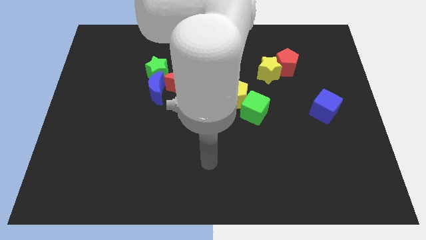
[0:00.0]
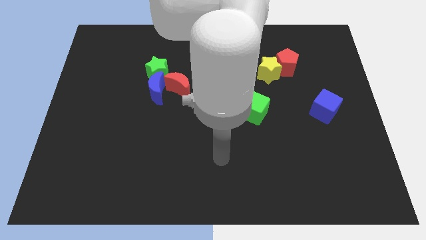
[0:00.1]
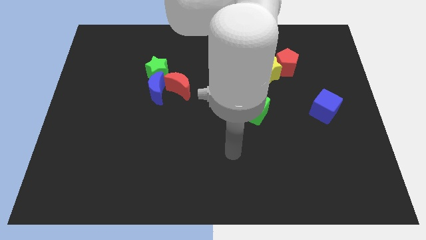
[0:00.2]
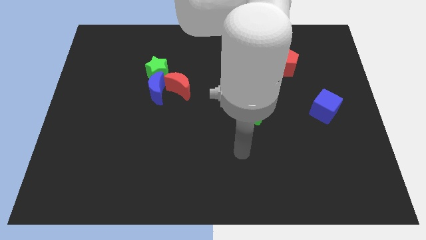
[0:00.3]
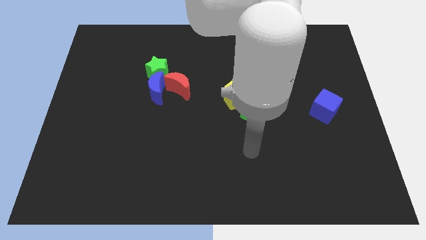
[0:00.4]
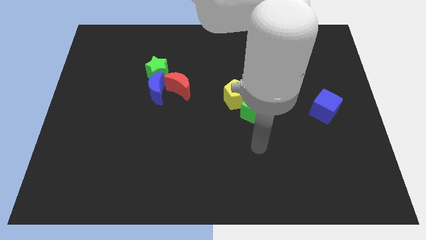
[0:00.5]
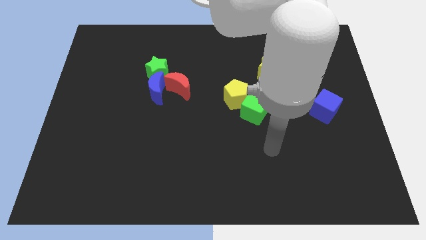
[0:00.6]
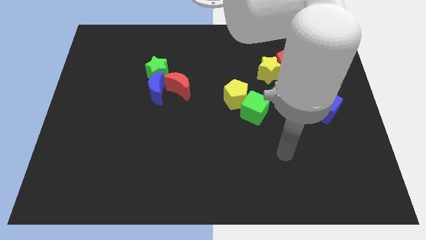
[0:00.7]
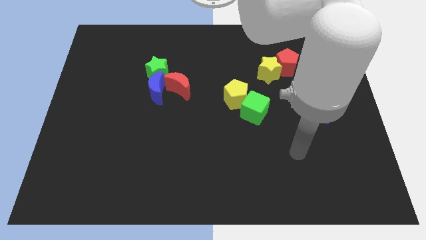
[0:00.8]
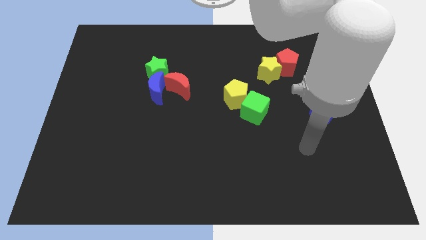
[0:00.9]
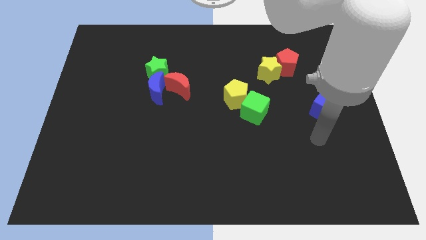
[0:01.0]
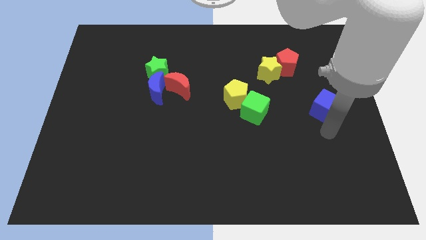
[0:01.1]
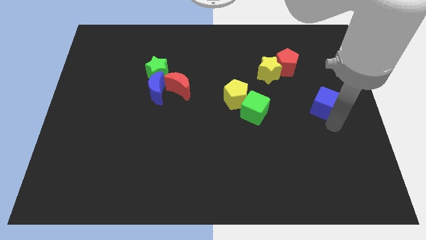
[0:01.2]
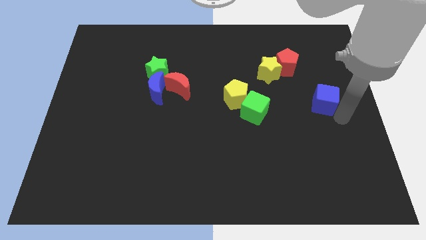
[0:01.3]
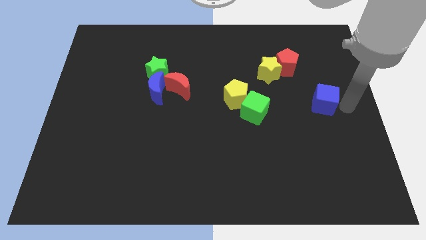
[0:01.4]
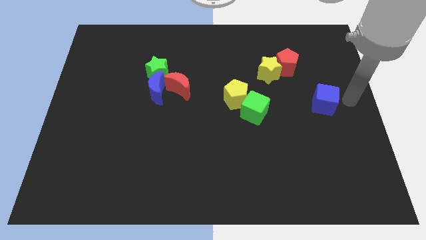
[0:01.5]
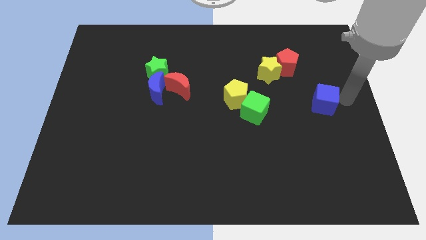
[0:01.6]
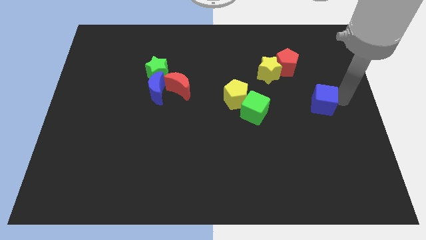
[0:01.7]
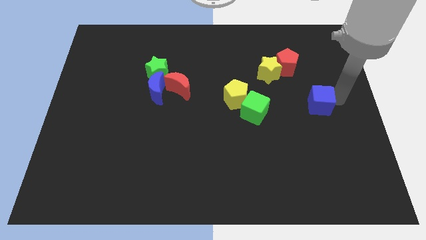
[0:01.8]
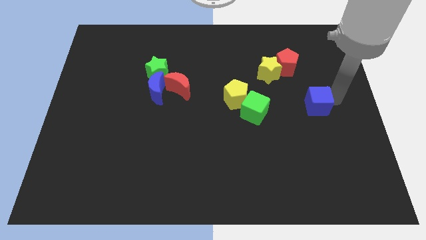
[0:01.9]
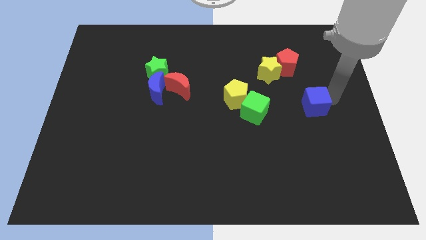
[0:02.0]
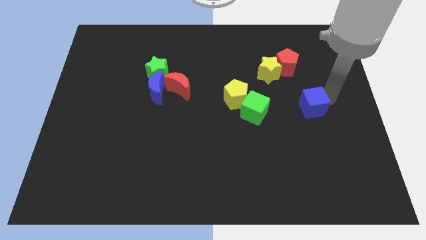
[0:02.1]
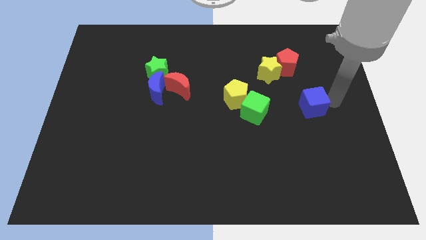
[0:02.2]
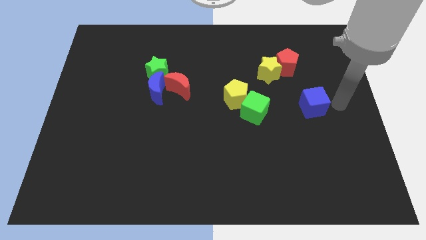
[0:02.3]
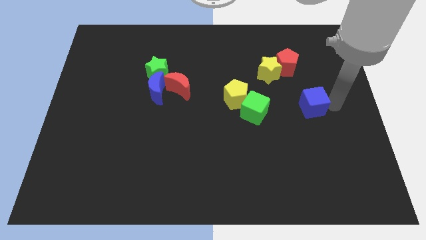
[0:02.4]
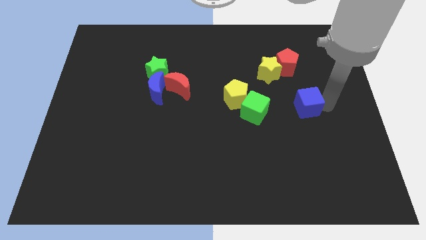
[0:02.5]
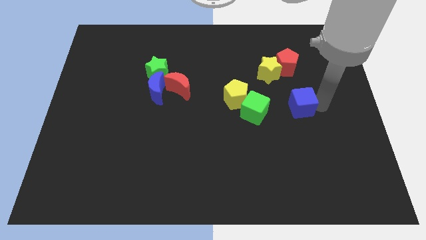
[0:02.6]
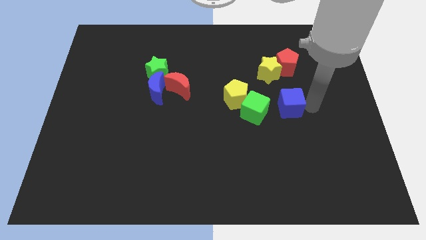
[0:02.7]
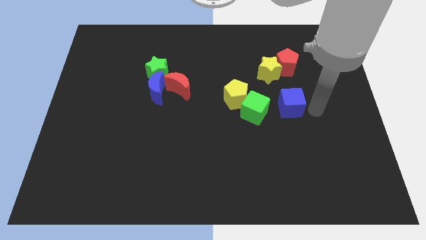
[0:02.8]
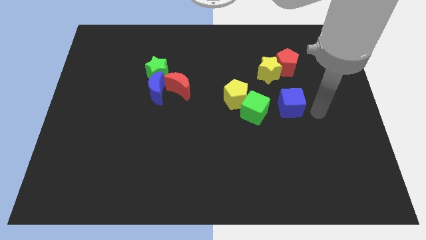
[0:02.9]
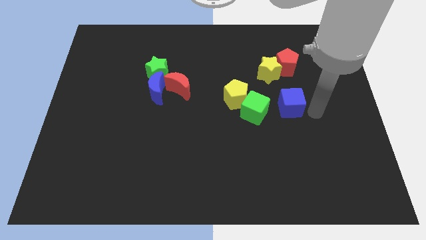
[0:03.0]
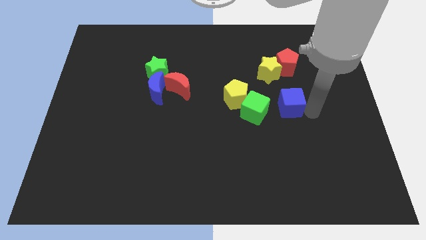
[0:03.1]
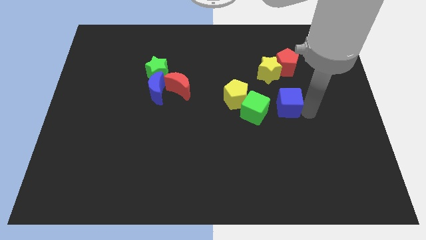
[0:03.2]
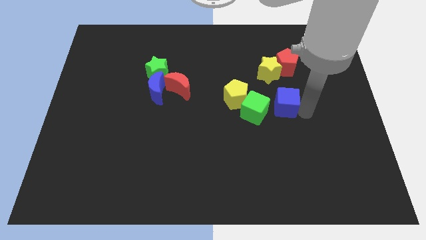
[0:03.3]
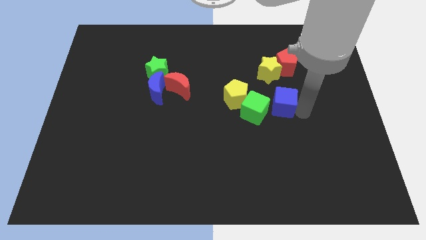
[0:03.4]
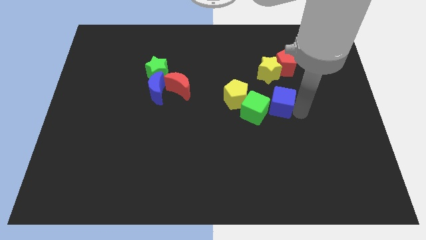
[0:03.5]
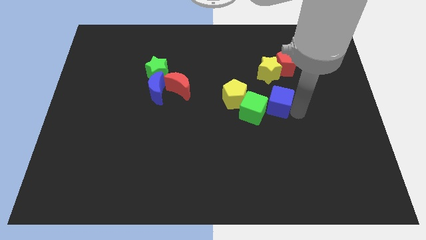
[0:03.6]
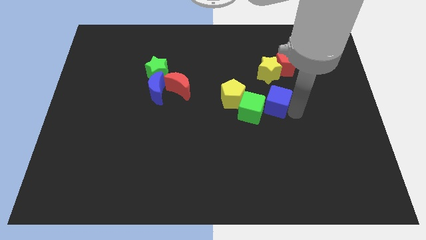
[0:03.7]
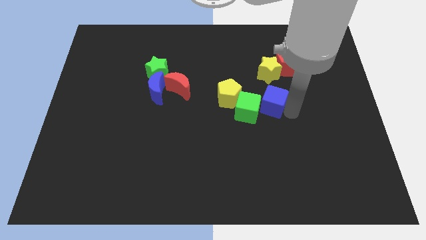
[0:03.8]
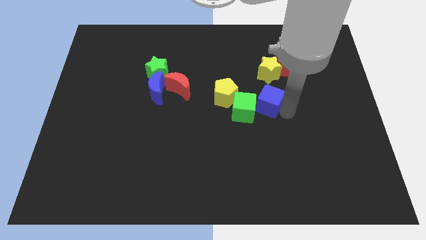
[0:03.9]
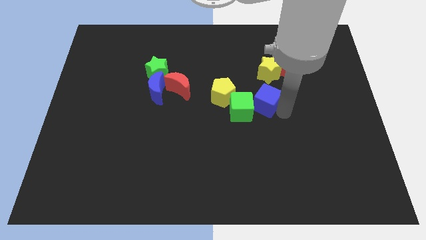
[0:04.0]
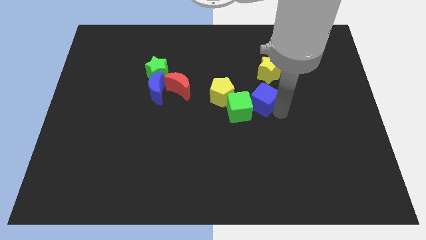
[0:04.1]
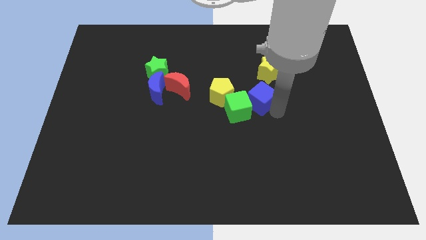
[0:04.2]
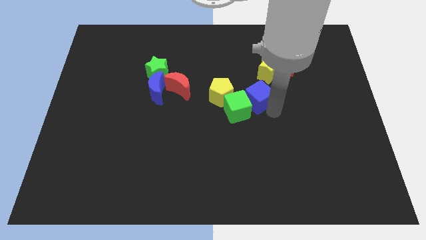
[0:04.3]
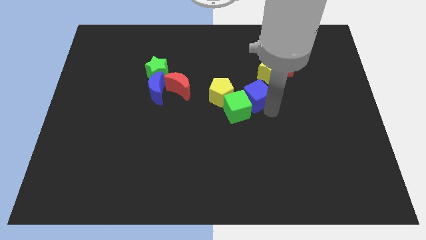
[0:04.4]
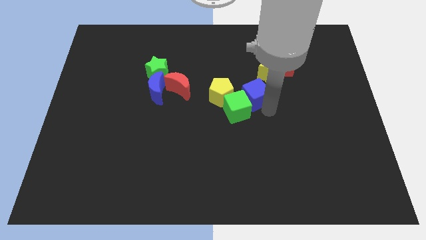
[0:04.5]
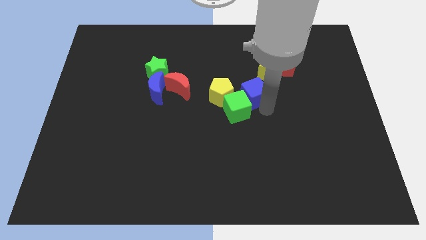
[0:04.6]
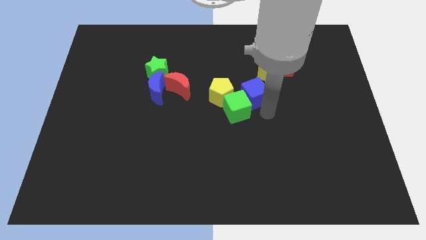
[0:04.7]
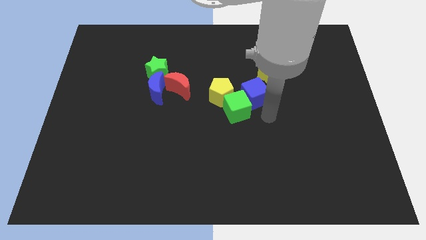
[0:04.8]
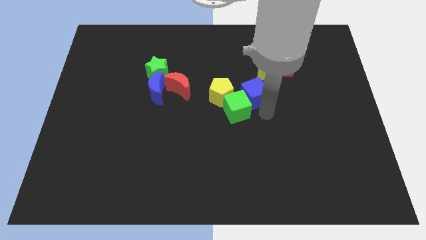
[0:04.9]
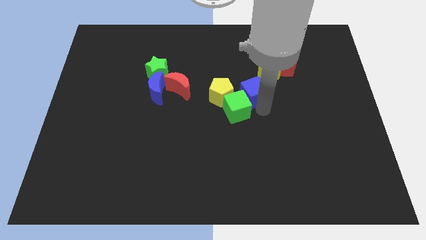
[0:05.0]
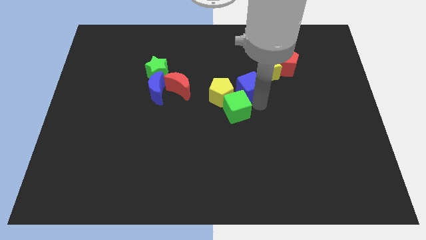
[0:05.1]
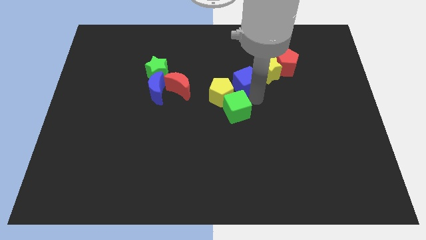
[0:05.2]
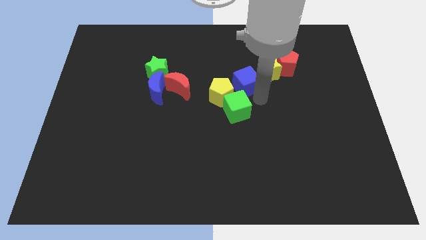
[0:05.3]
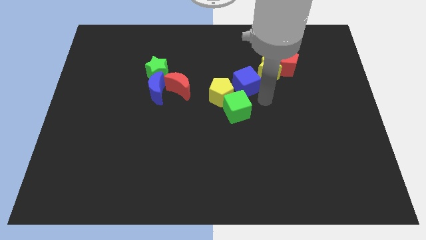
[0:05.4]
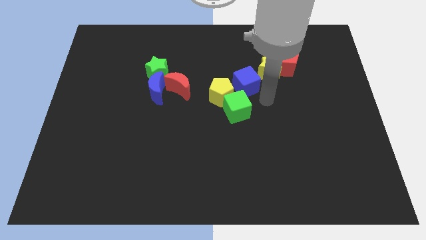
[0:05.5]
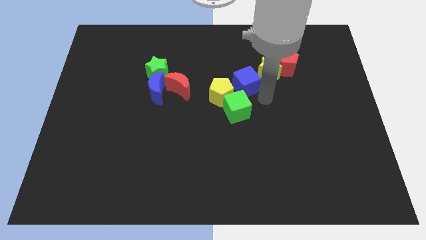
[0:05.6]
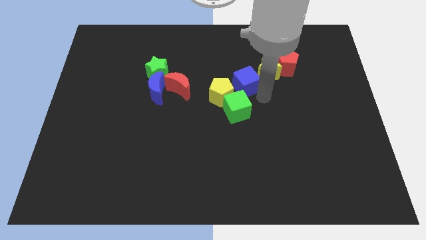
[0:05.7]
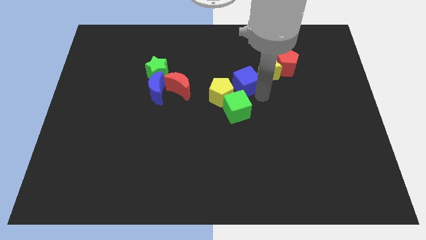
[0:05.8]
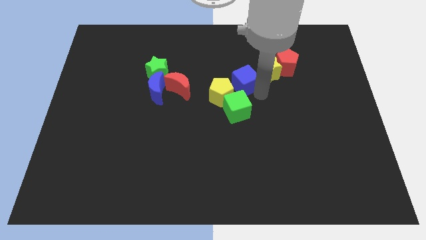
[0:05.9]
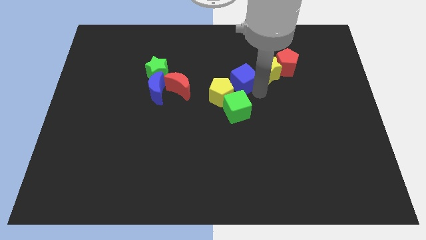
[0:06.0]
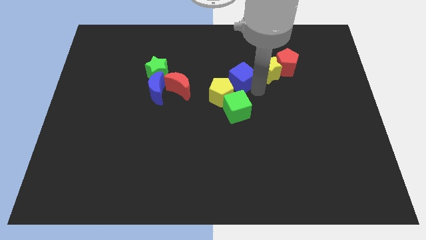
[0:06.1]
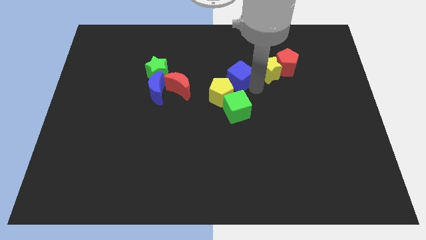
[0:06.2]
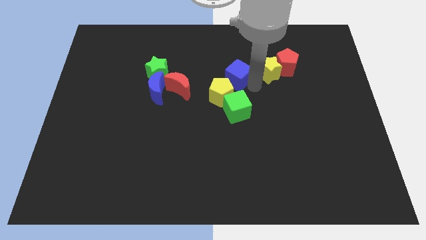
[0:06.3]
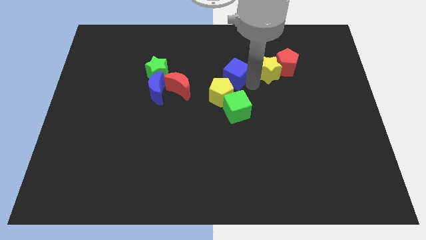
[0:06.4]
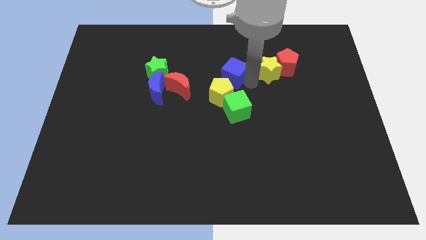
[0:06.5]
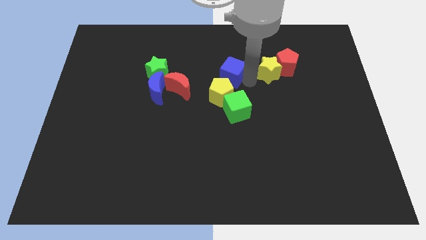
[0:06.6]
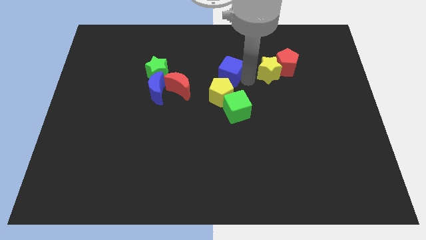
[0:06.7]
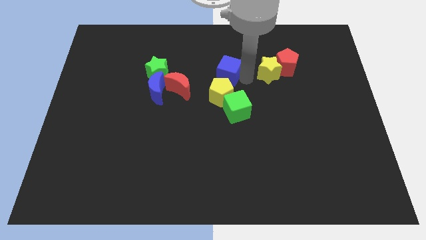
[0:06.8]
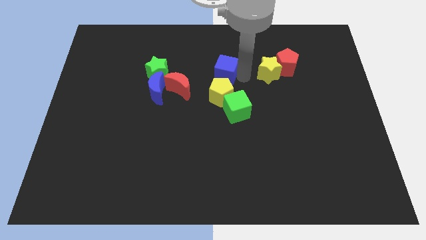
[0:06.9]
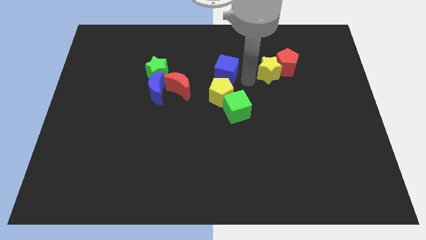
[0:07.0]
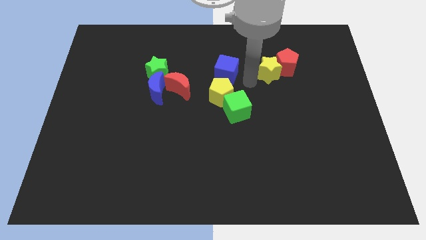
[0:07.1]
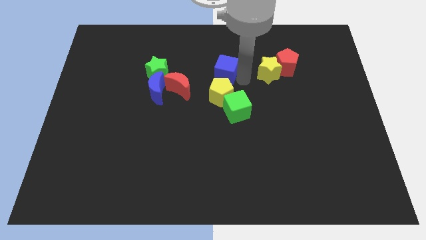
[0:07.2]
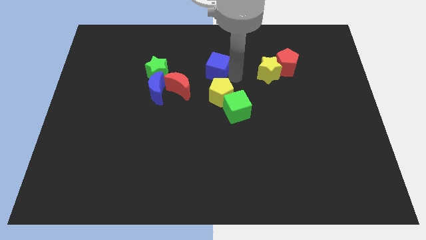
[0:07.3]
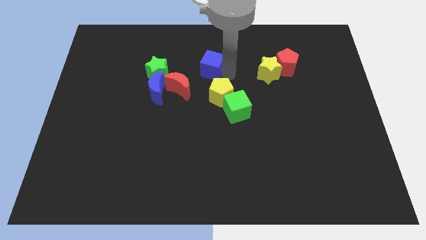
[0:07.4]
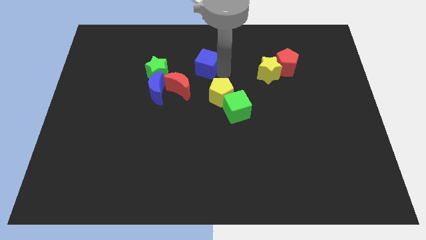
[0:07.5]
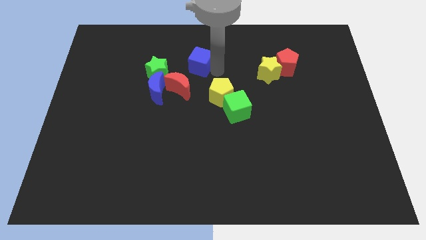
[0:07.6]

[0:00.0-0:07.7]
slide the blue cube above the red moon

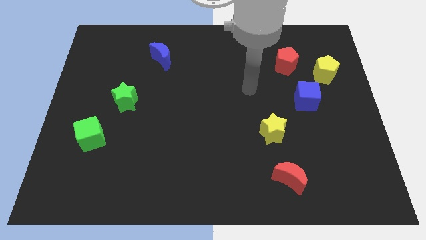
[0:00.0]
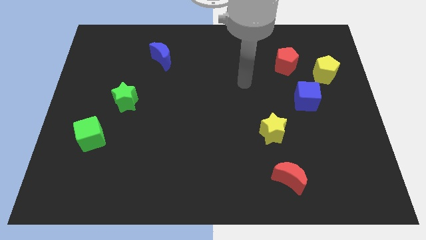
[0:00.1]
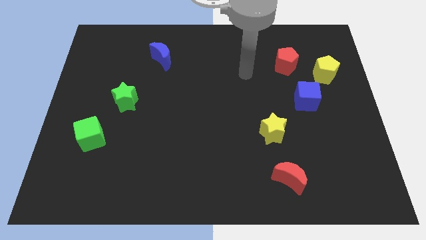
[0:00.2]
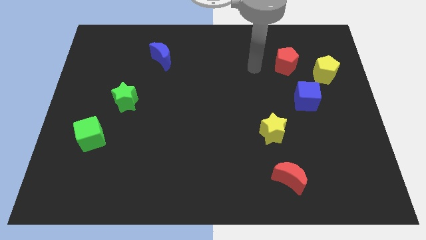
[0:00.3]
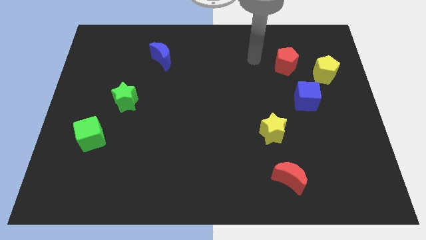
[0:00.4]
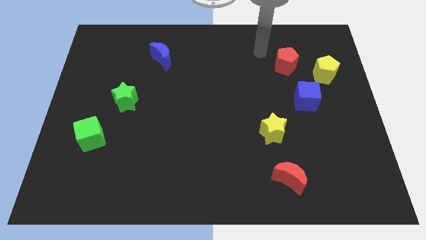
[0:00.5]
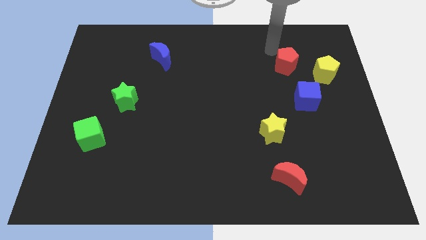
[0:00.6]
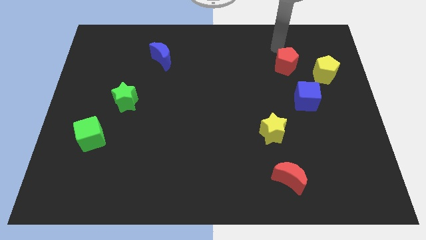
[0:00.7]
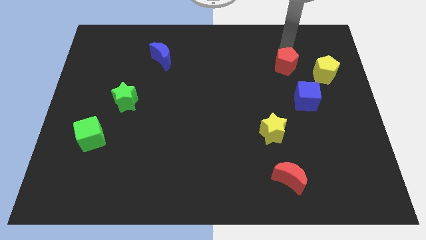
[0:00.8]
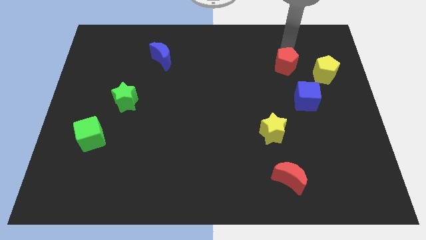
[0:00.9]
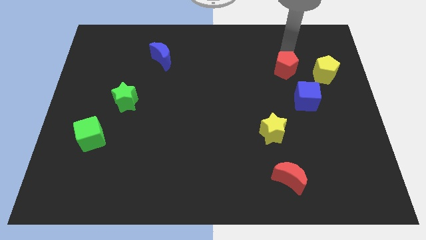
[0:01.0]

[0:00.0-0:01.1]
push the red pentagon to the top left of the blue cube
